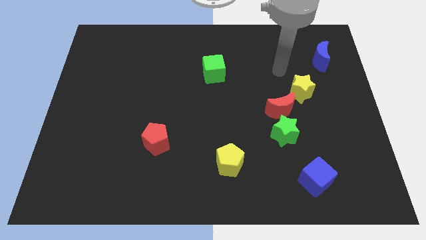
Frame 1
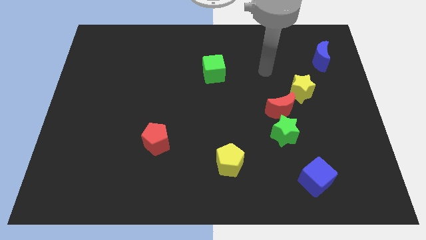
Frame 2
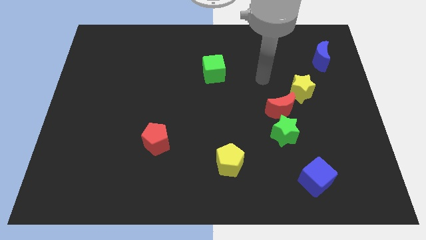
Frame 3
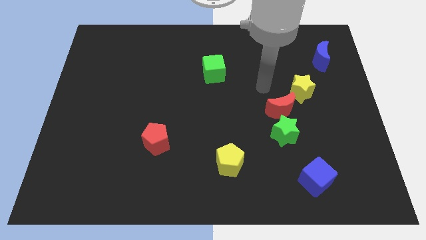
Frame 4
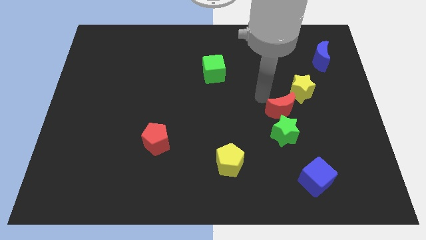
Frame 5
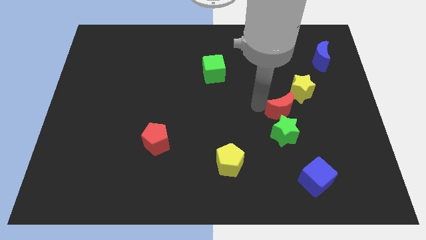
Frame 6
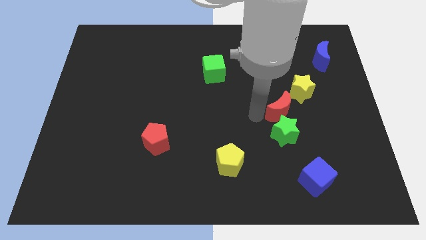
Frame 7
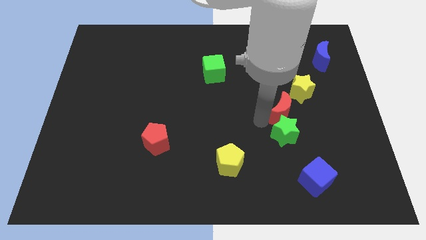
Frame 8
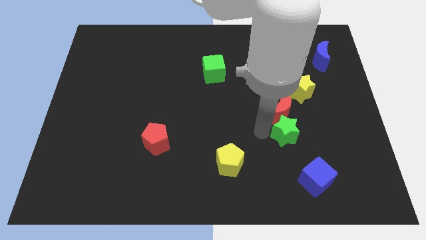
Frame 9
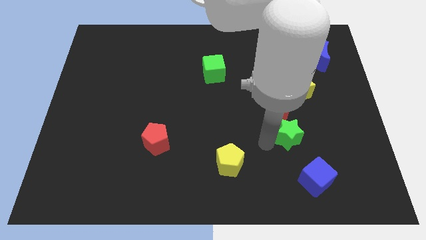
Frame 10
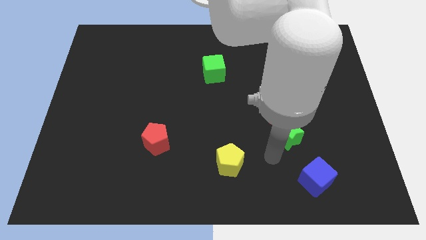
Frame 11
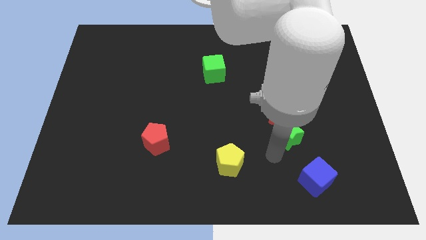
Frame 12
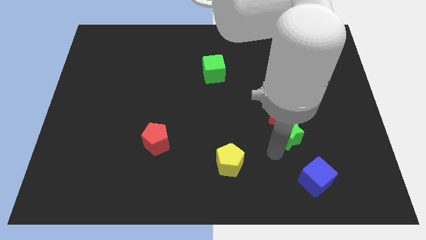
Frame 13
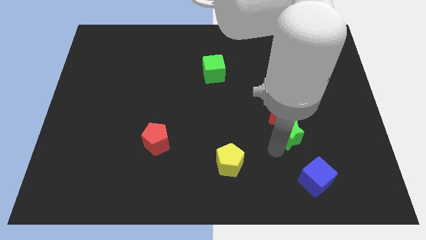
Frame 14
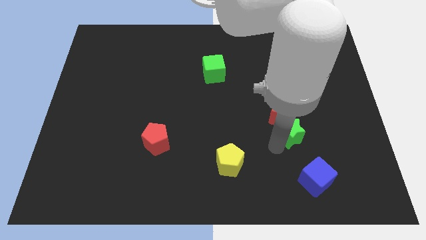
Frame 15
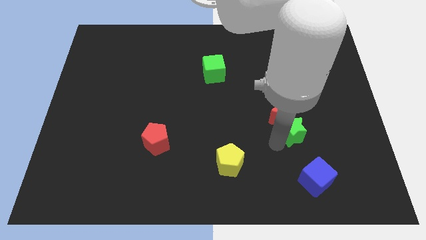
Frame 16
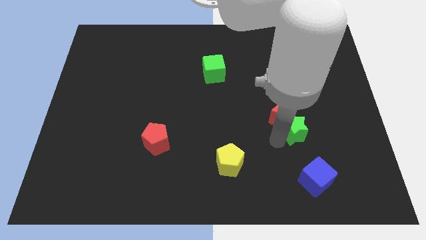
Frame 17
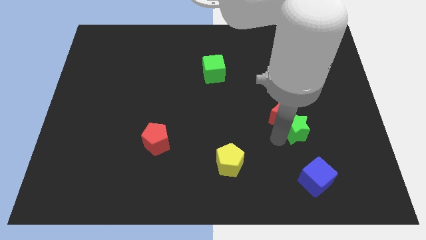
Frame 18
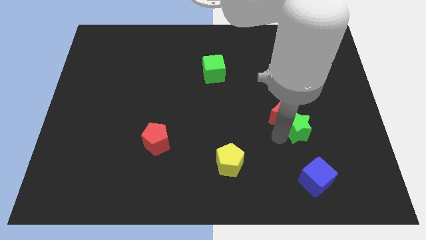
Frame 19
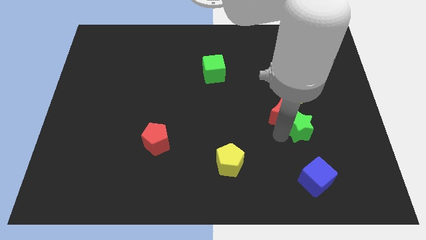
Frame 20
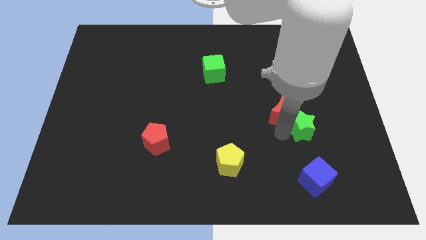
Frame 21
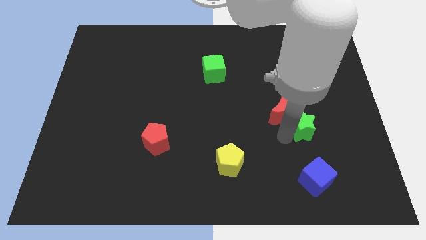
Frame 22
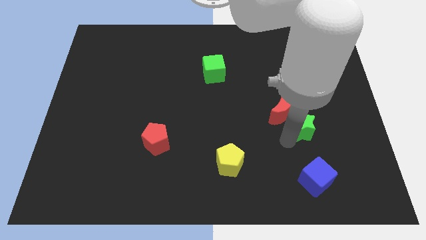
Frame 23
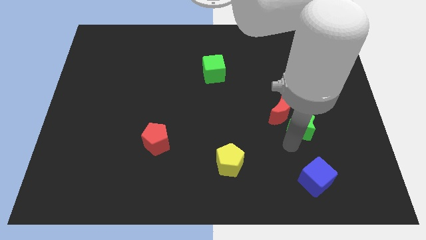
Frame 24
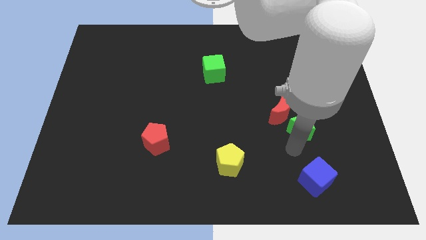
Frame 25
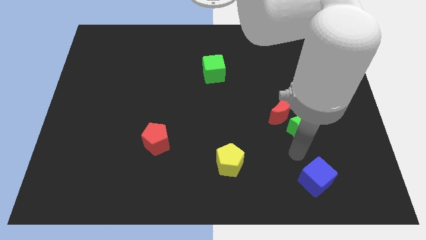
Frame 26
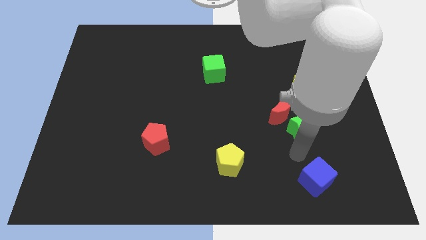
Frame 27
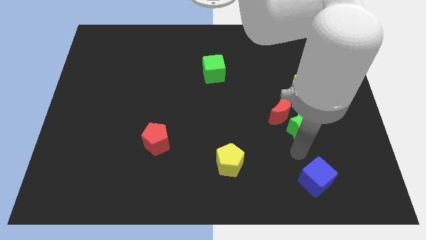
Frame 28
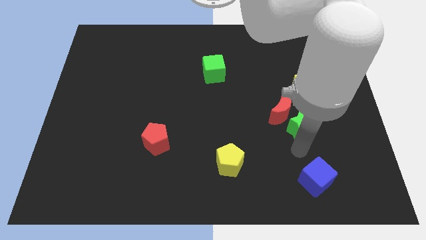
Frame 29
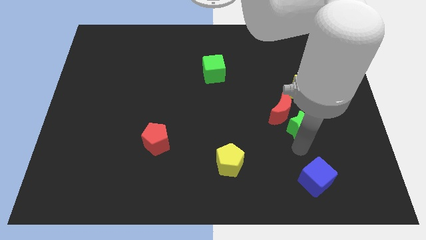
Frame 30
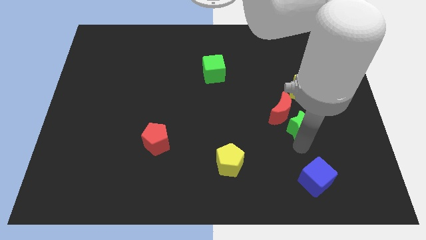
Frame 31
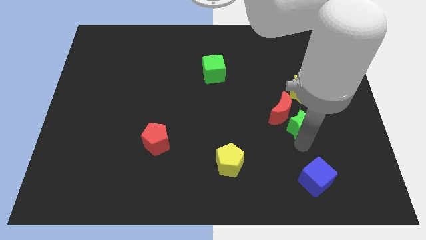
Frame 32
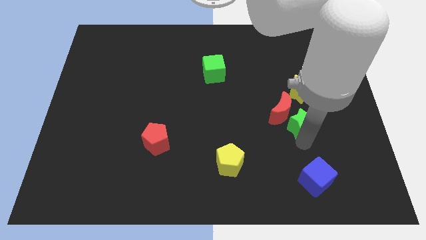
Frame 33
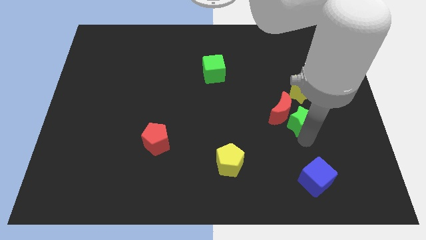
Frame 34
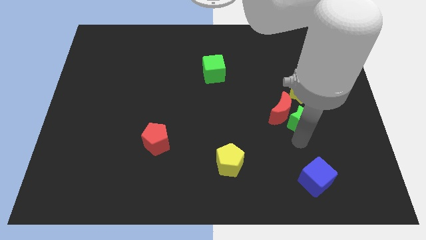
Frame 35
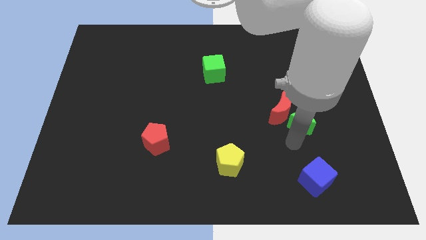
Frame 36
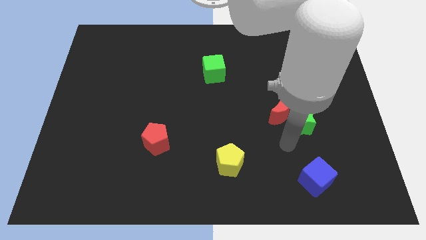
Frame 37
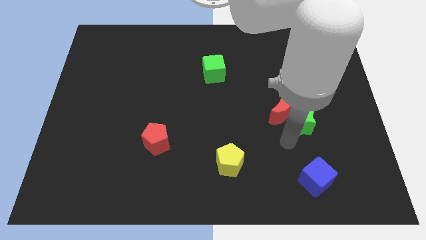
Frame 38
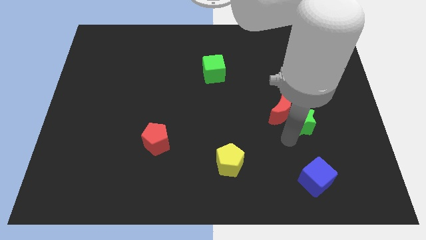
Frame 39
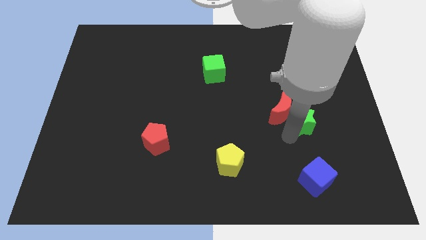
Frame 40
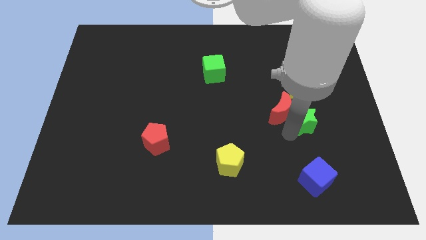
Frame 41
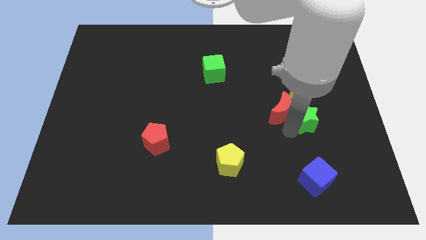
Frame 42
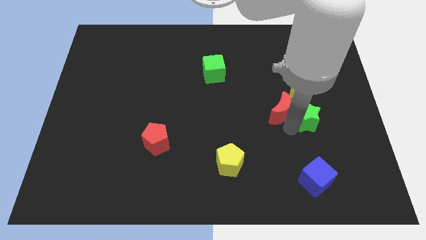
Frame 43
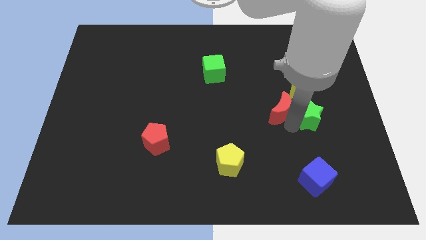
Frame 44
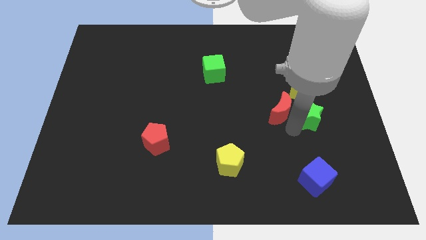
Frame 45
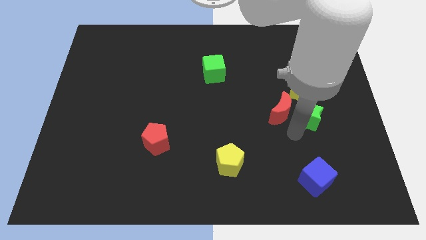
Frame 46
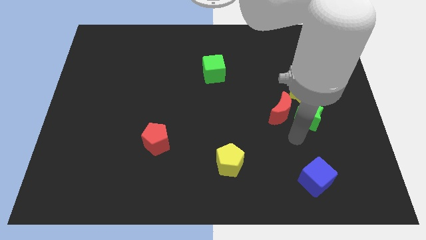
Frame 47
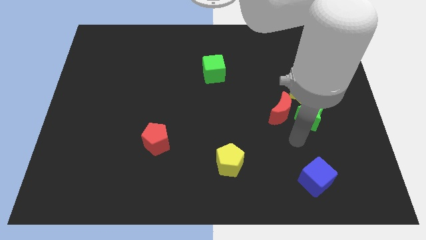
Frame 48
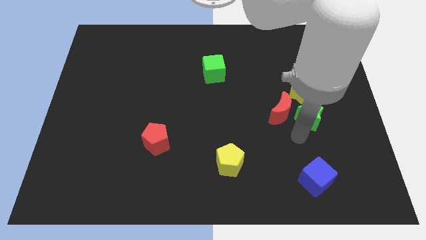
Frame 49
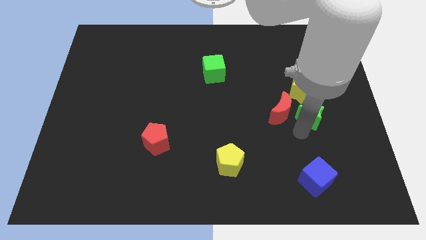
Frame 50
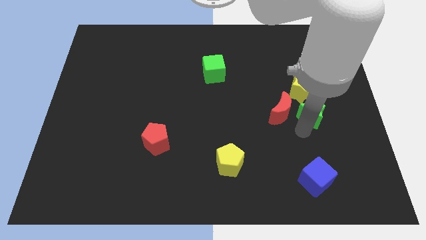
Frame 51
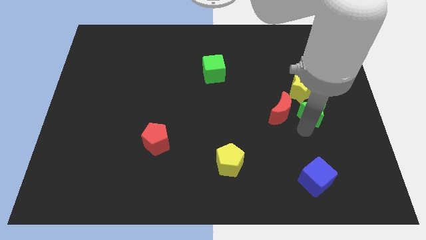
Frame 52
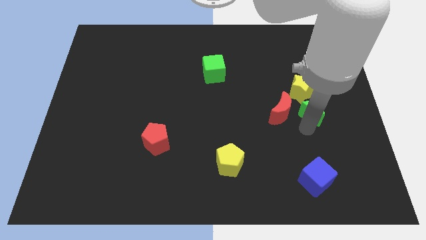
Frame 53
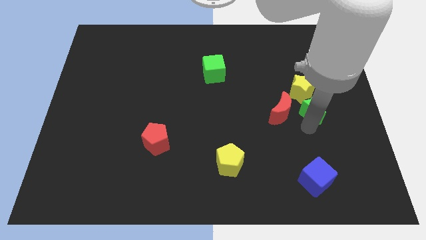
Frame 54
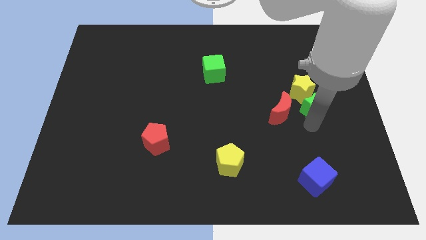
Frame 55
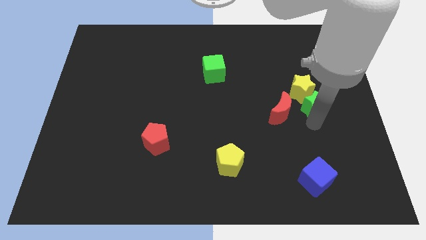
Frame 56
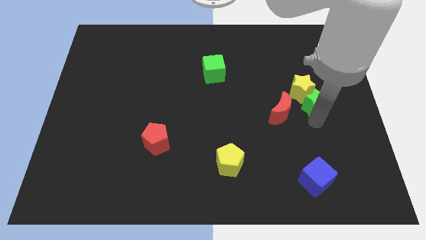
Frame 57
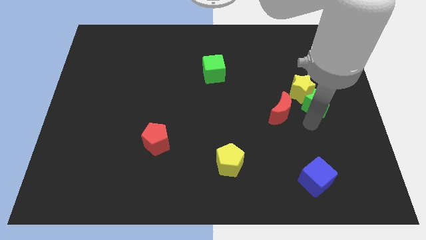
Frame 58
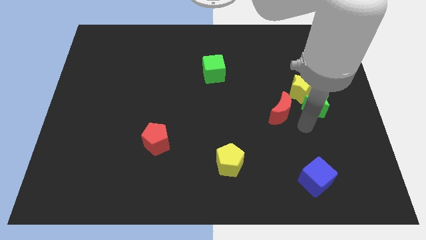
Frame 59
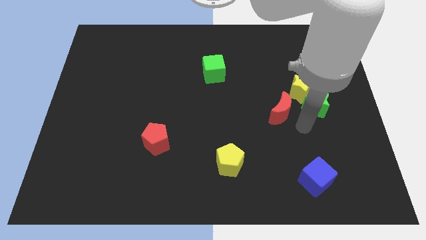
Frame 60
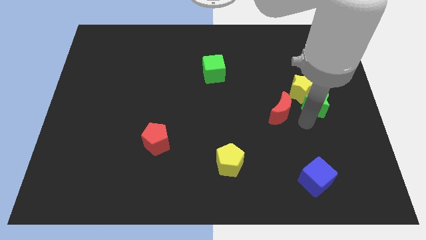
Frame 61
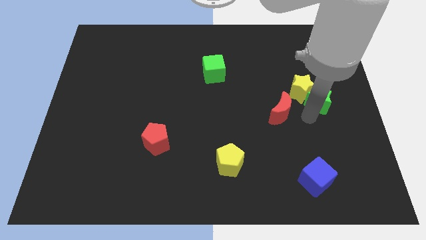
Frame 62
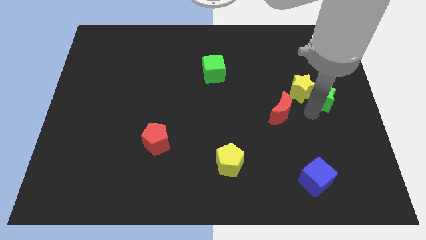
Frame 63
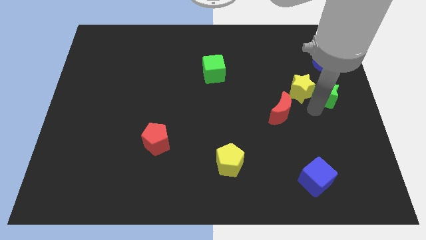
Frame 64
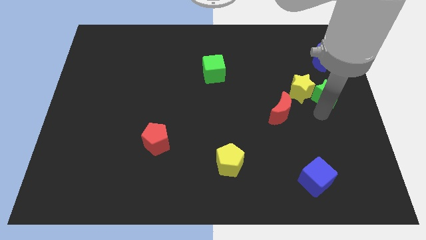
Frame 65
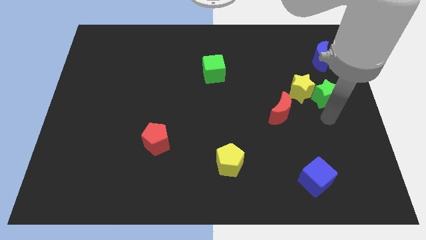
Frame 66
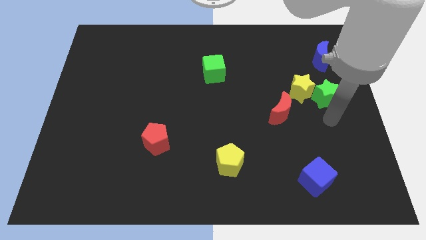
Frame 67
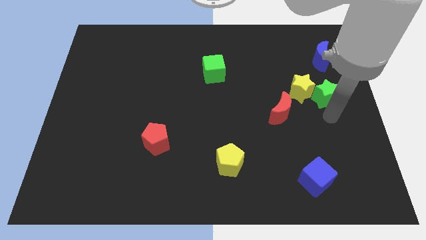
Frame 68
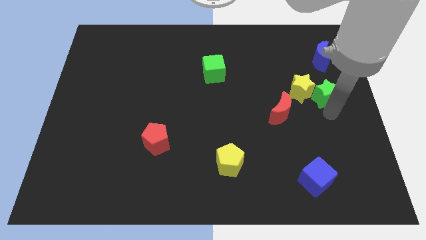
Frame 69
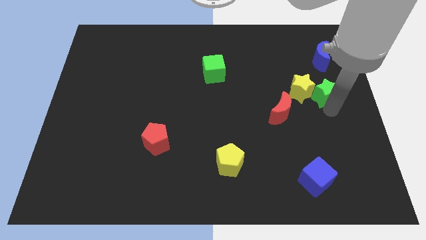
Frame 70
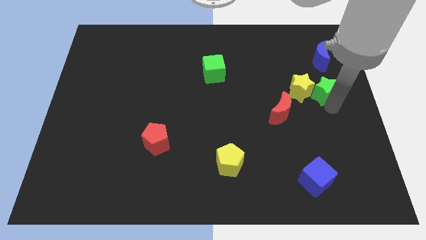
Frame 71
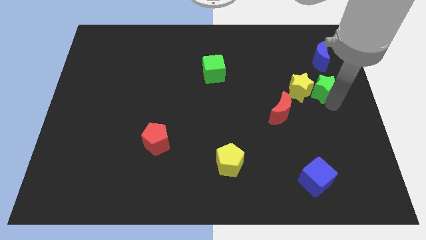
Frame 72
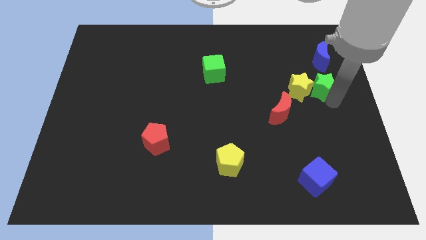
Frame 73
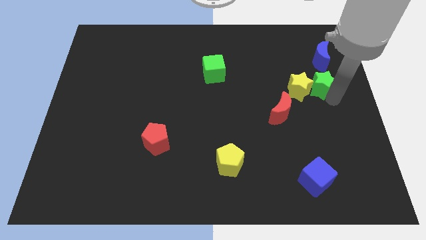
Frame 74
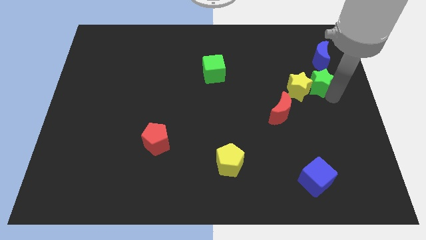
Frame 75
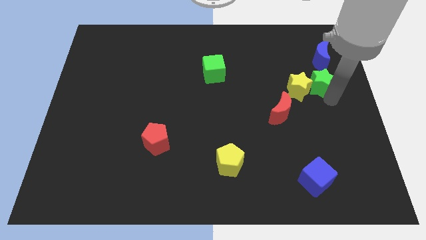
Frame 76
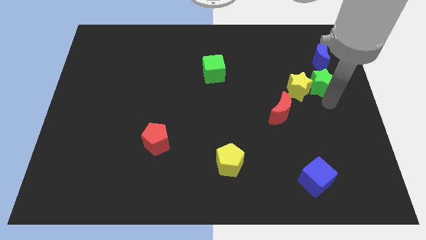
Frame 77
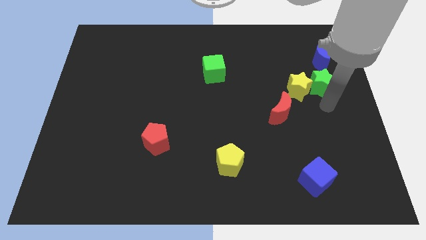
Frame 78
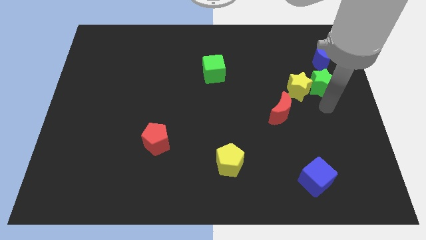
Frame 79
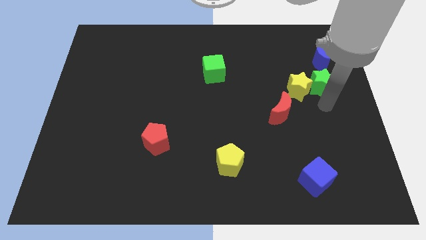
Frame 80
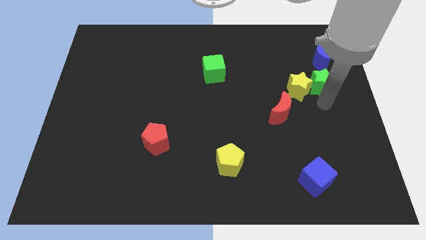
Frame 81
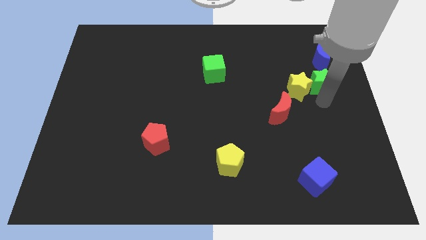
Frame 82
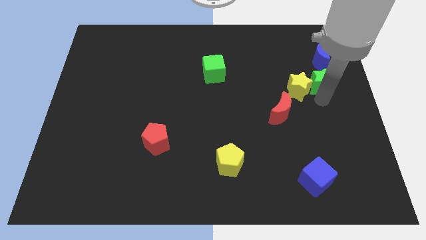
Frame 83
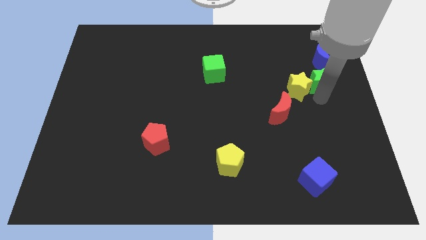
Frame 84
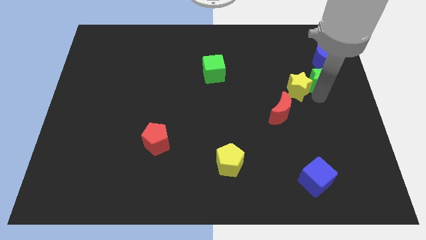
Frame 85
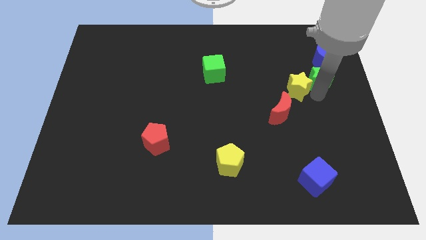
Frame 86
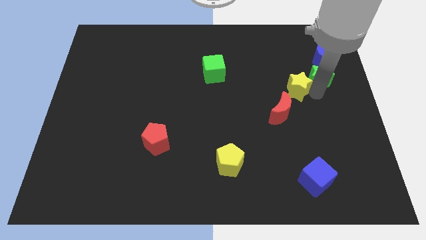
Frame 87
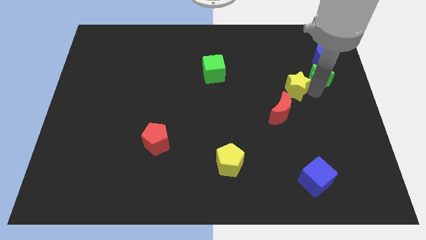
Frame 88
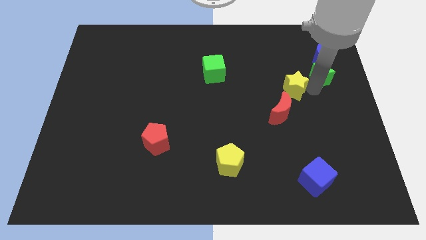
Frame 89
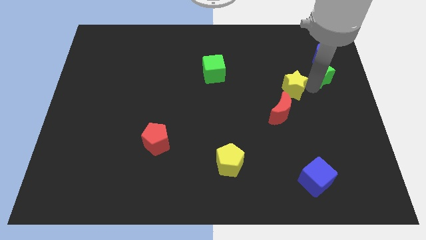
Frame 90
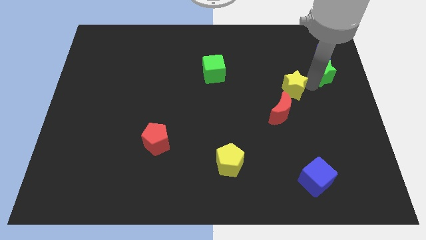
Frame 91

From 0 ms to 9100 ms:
put the green star next to the blue moon
